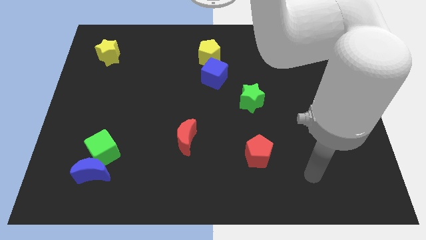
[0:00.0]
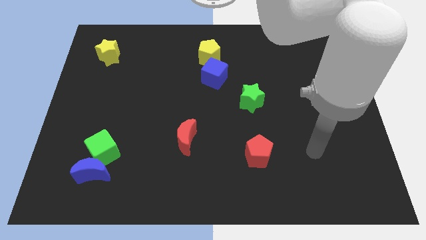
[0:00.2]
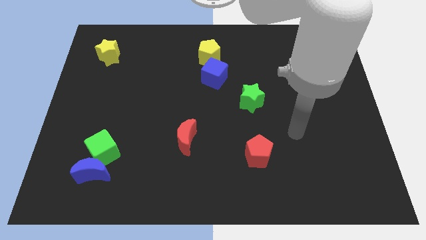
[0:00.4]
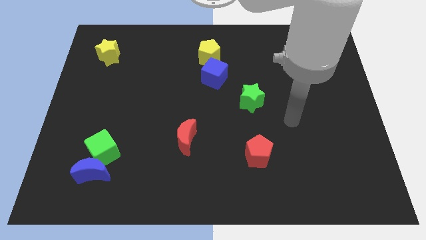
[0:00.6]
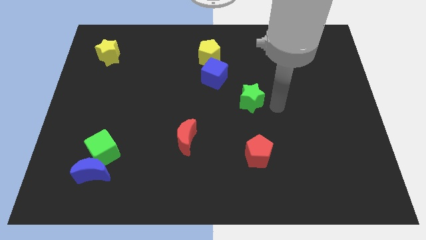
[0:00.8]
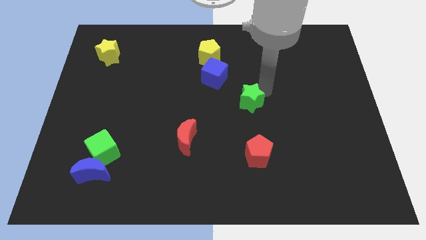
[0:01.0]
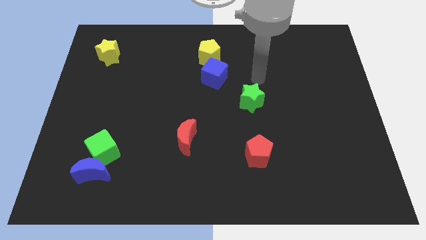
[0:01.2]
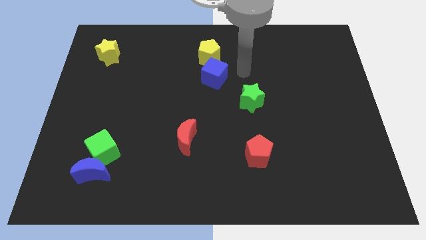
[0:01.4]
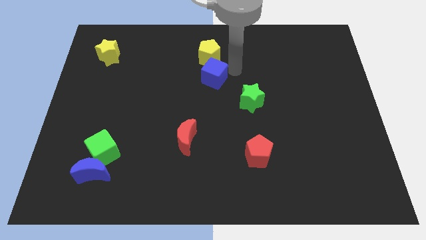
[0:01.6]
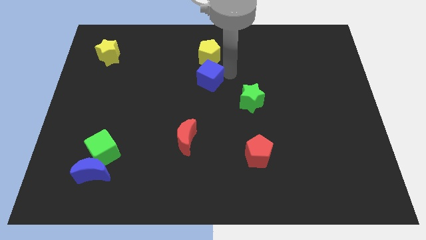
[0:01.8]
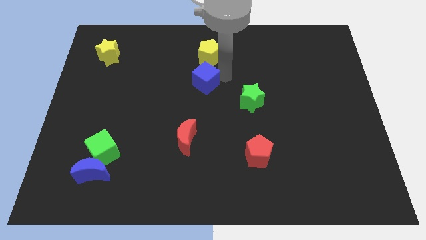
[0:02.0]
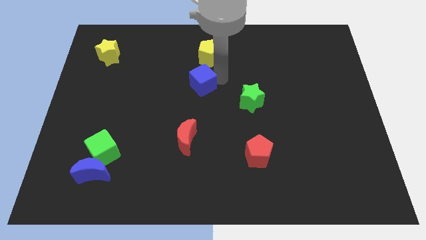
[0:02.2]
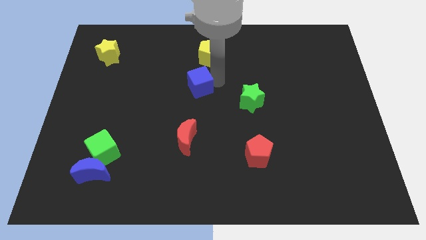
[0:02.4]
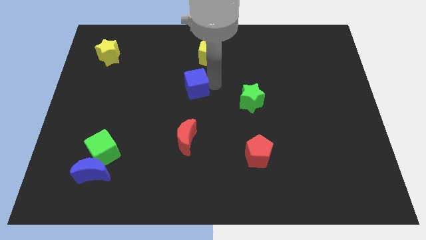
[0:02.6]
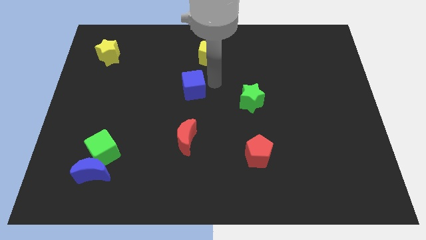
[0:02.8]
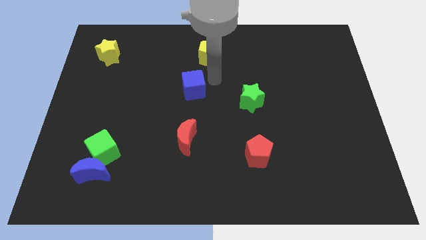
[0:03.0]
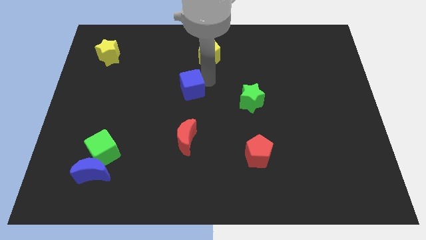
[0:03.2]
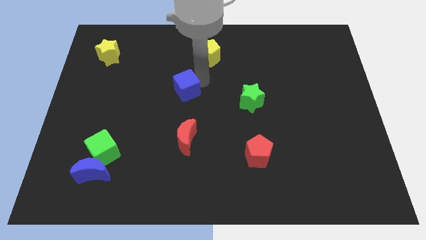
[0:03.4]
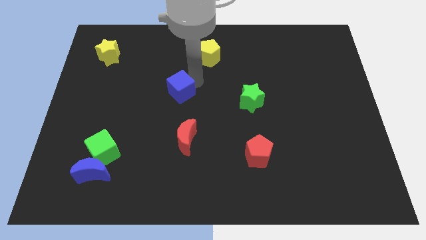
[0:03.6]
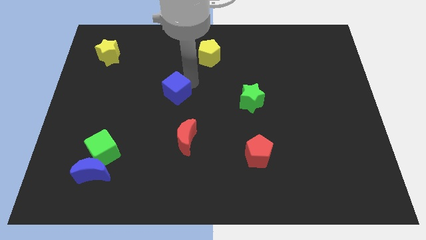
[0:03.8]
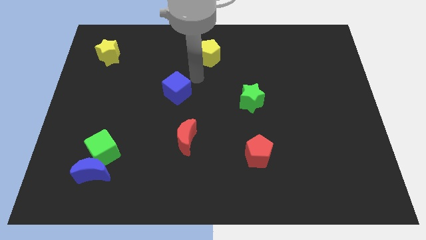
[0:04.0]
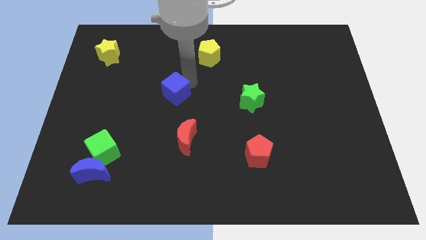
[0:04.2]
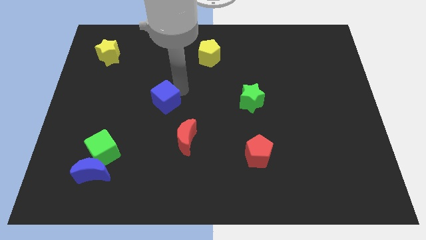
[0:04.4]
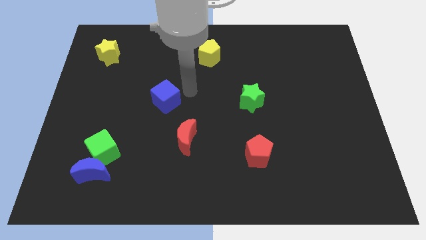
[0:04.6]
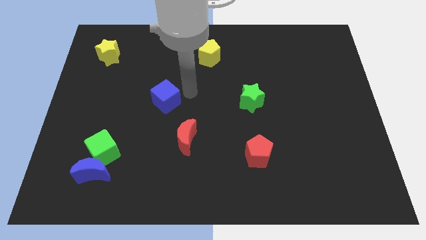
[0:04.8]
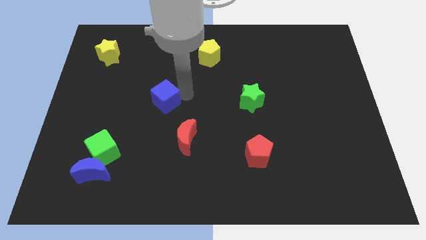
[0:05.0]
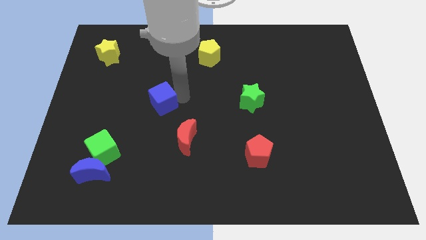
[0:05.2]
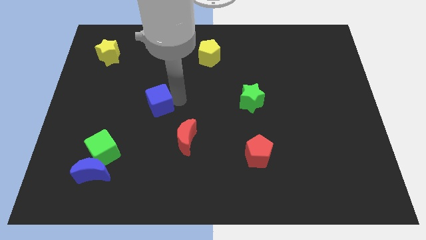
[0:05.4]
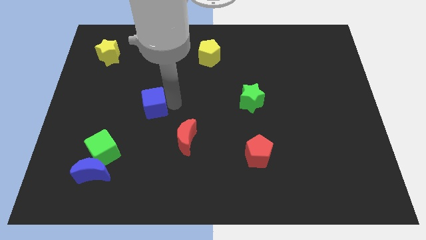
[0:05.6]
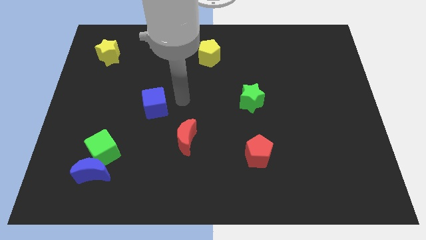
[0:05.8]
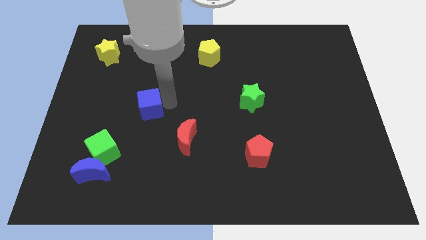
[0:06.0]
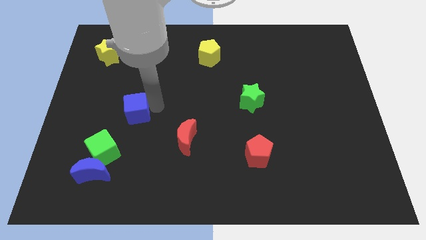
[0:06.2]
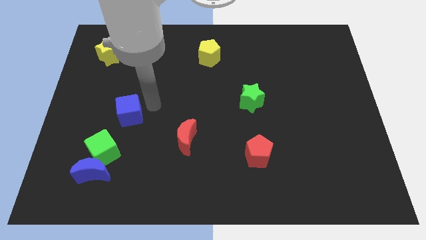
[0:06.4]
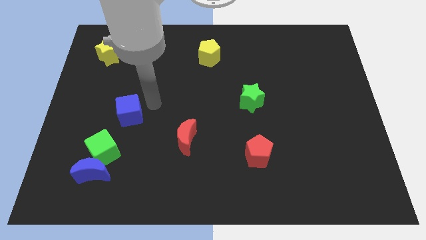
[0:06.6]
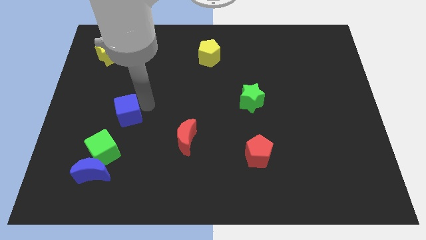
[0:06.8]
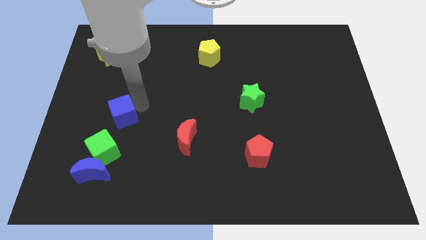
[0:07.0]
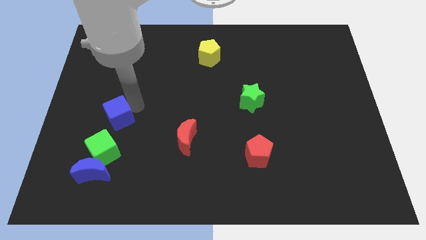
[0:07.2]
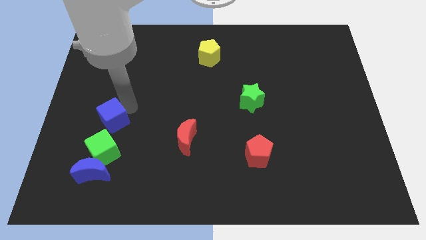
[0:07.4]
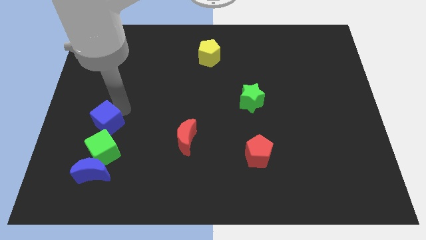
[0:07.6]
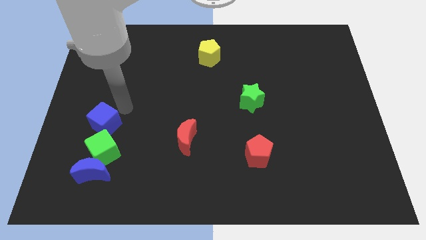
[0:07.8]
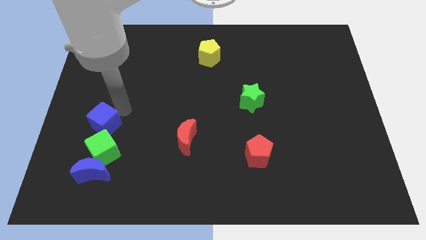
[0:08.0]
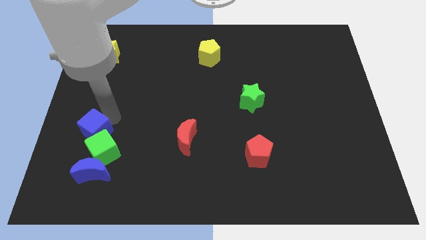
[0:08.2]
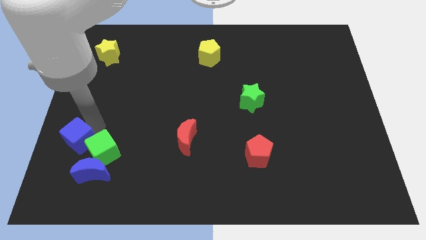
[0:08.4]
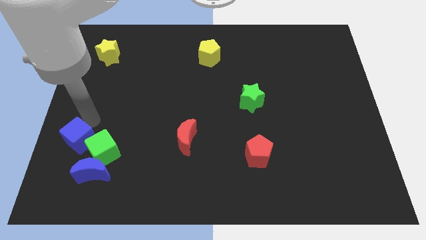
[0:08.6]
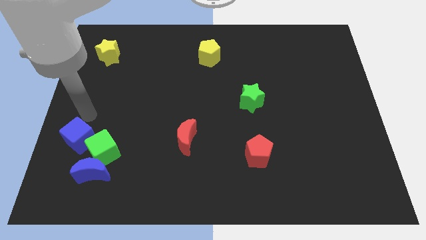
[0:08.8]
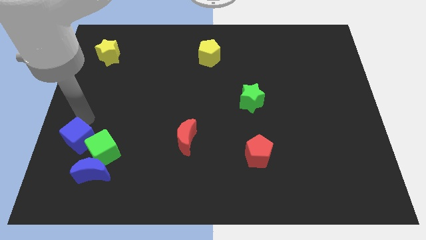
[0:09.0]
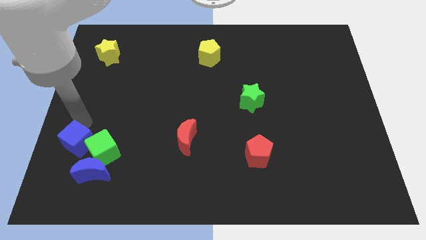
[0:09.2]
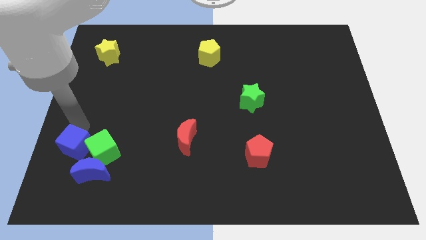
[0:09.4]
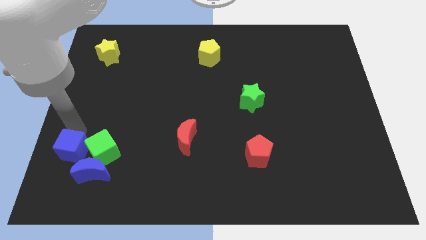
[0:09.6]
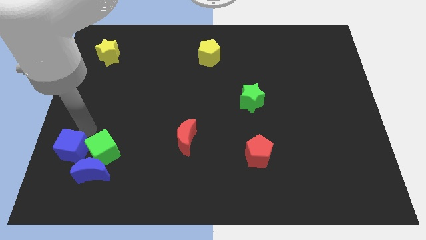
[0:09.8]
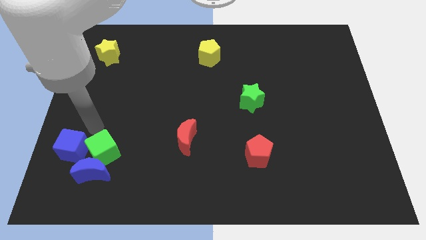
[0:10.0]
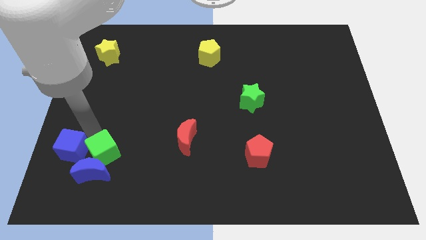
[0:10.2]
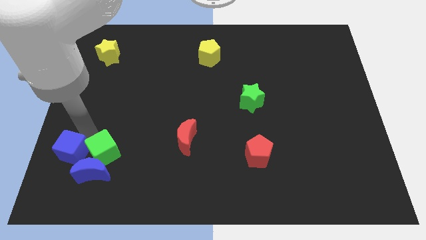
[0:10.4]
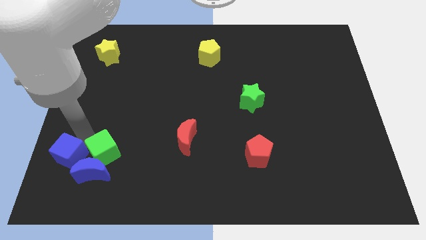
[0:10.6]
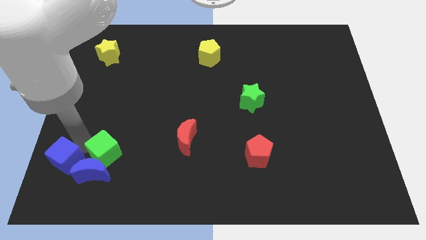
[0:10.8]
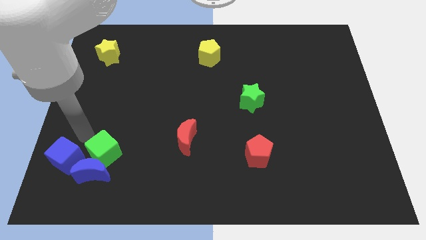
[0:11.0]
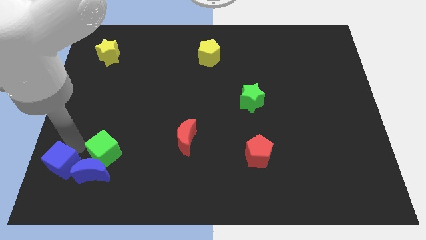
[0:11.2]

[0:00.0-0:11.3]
push the blue cube to the bottom left
